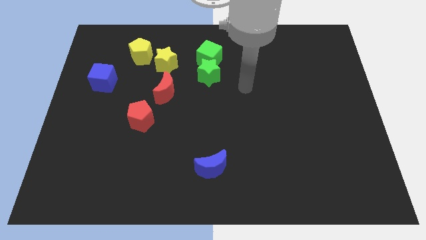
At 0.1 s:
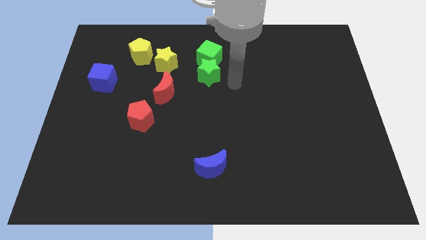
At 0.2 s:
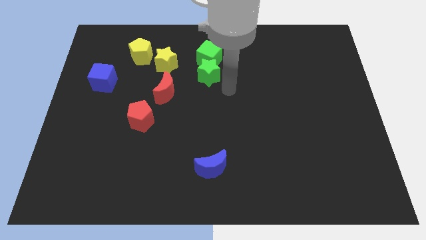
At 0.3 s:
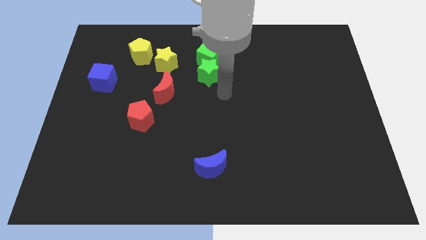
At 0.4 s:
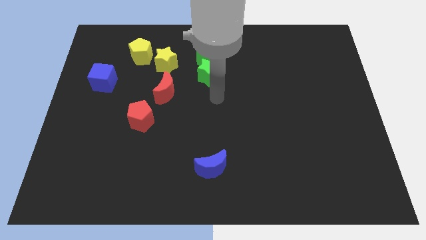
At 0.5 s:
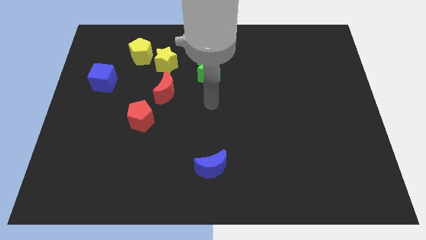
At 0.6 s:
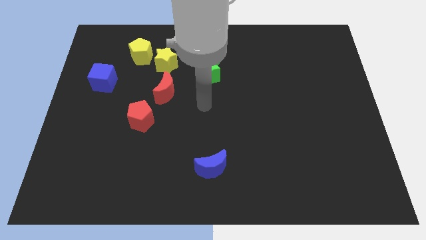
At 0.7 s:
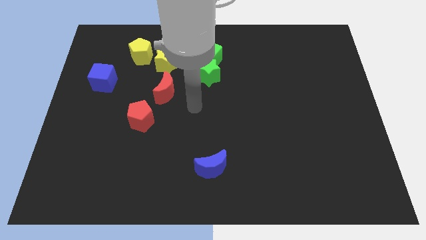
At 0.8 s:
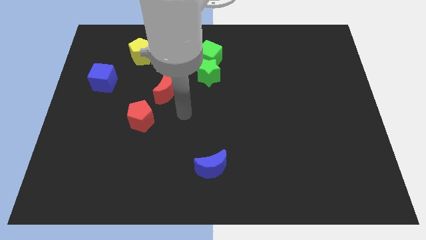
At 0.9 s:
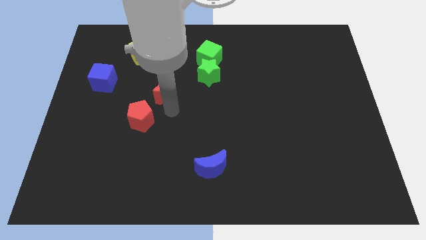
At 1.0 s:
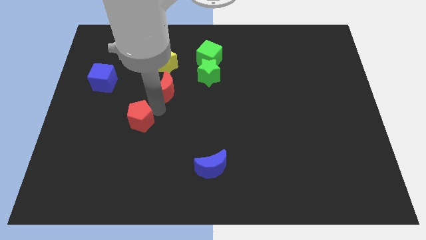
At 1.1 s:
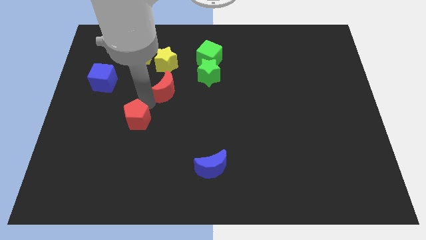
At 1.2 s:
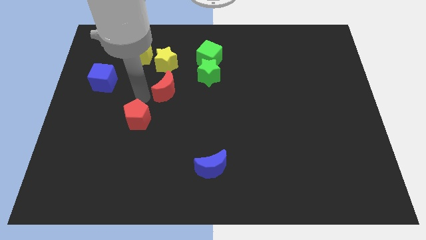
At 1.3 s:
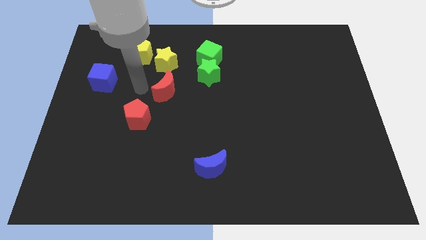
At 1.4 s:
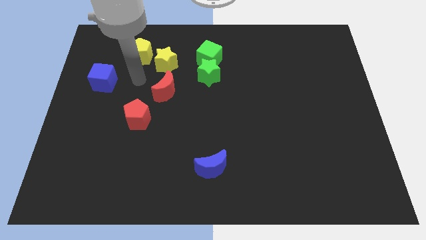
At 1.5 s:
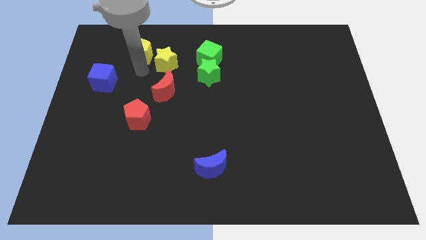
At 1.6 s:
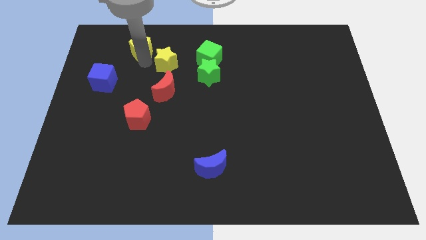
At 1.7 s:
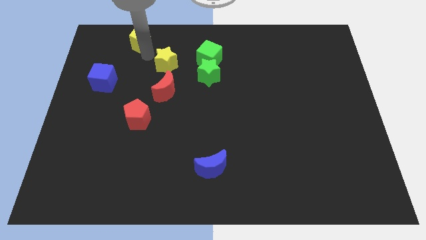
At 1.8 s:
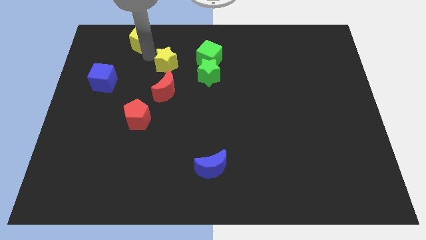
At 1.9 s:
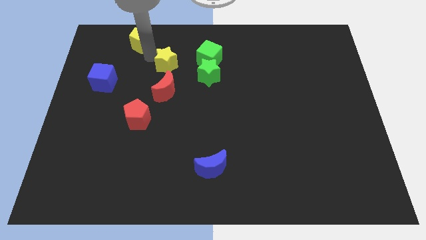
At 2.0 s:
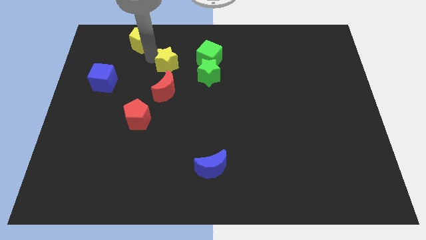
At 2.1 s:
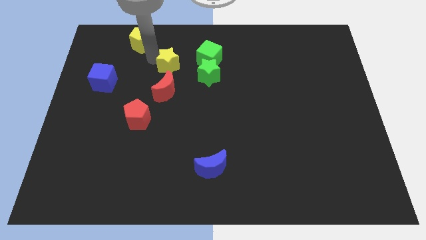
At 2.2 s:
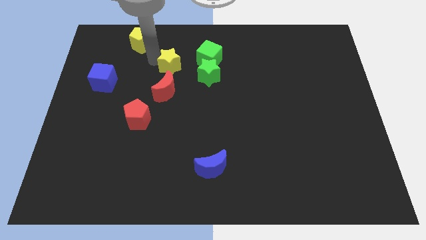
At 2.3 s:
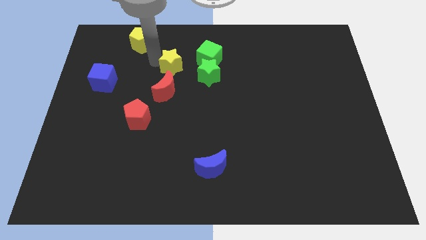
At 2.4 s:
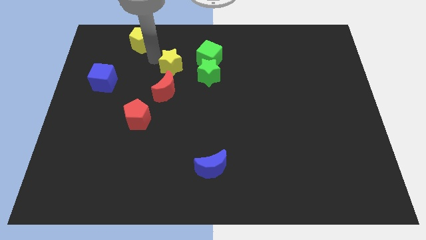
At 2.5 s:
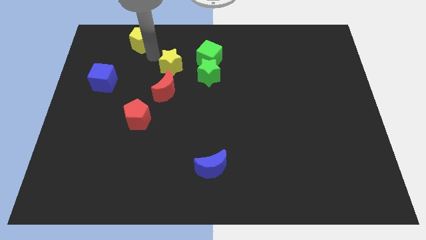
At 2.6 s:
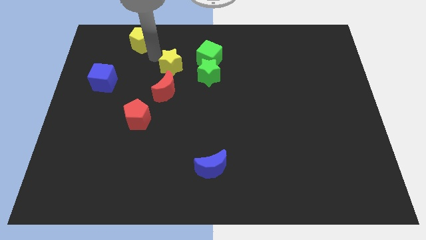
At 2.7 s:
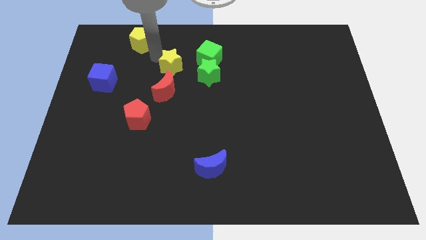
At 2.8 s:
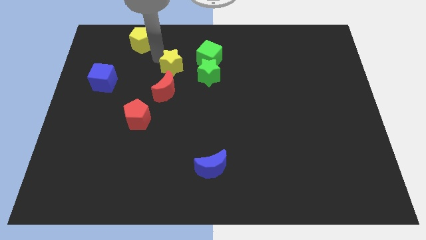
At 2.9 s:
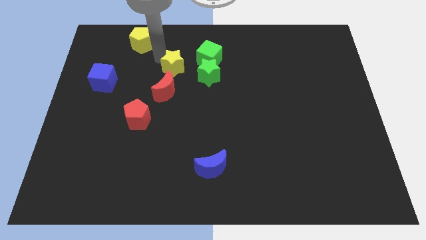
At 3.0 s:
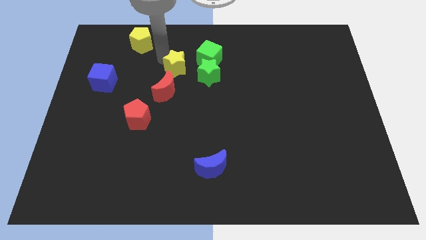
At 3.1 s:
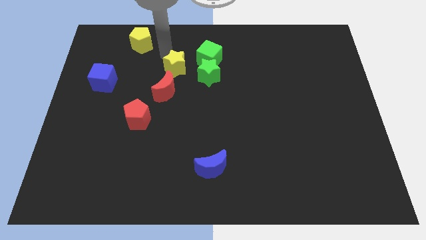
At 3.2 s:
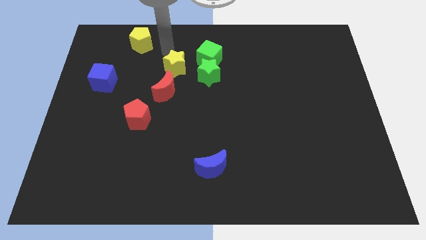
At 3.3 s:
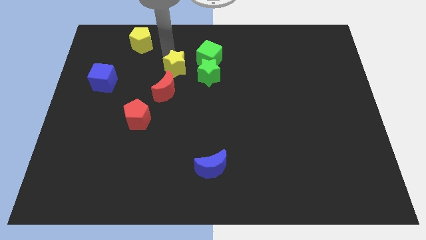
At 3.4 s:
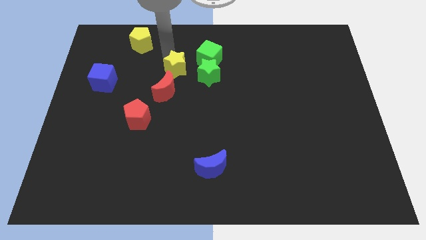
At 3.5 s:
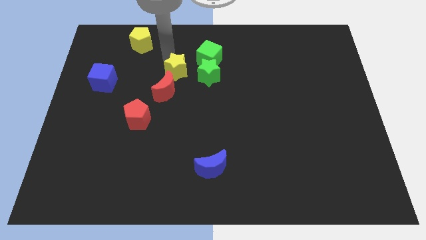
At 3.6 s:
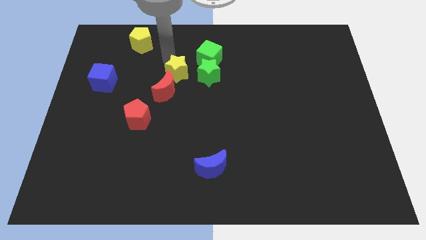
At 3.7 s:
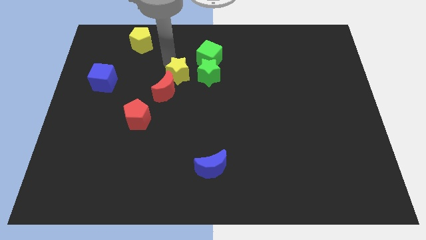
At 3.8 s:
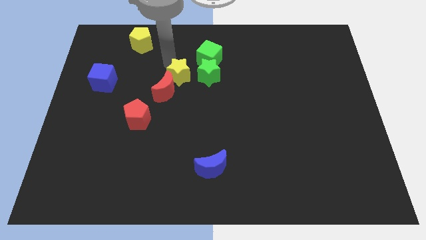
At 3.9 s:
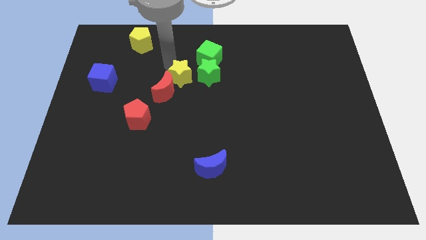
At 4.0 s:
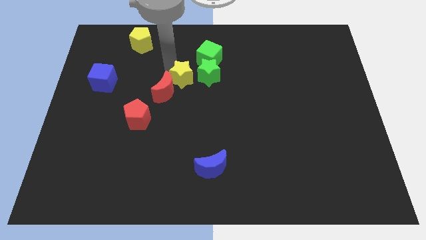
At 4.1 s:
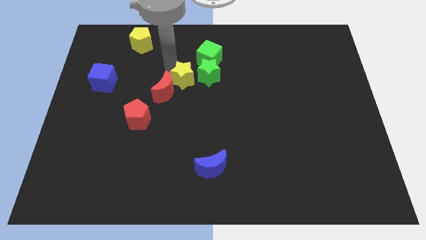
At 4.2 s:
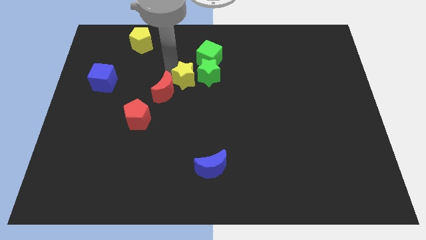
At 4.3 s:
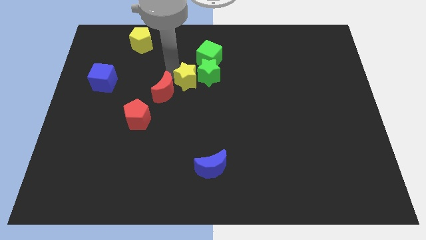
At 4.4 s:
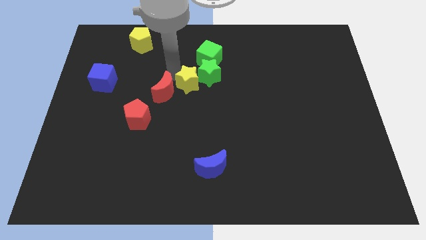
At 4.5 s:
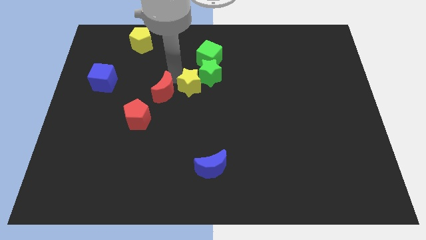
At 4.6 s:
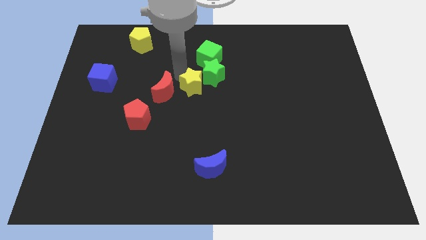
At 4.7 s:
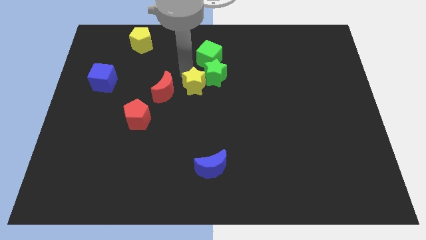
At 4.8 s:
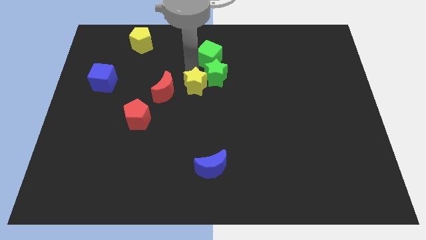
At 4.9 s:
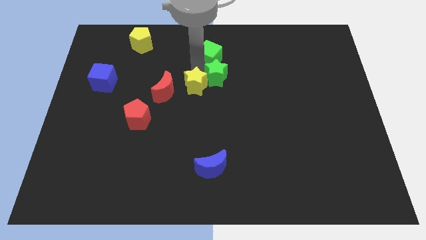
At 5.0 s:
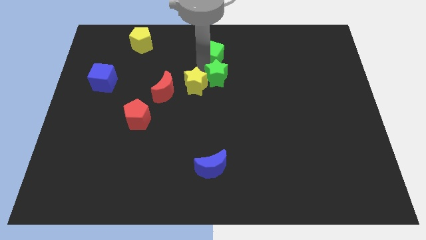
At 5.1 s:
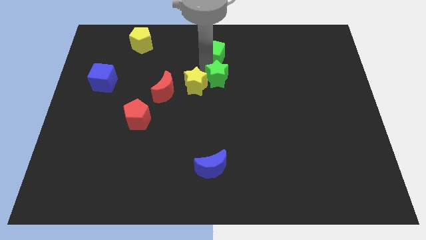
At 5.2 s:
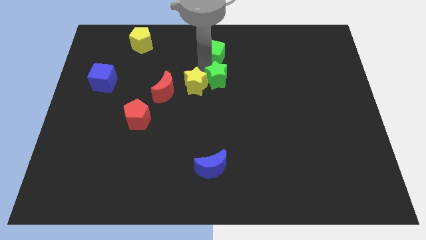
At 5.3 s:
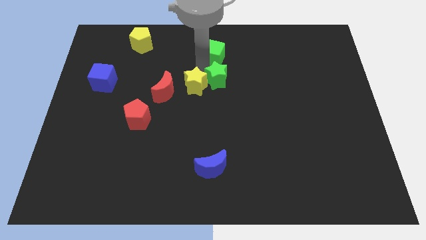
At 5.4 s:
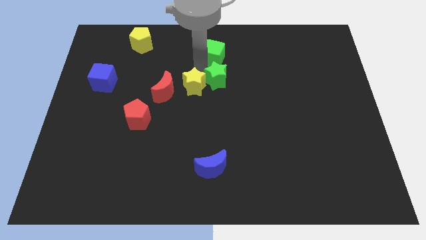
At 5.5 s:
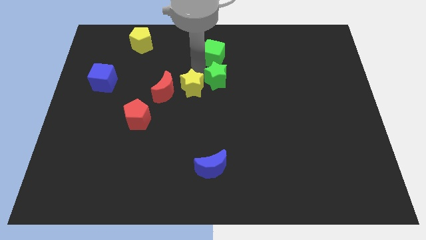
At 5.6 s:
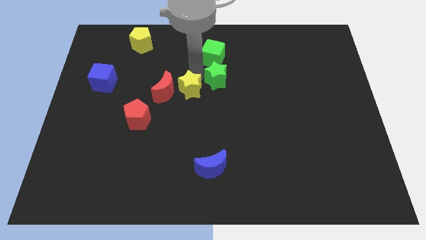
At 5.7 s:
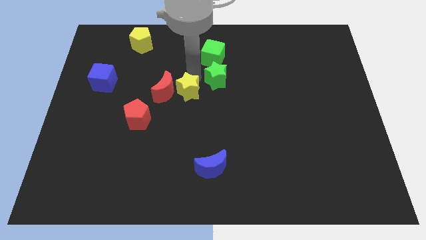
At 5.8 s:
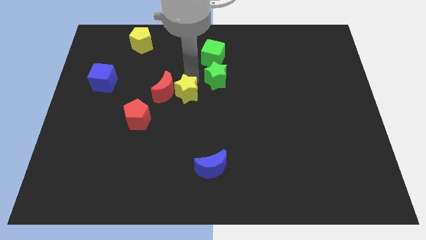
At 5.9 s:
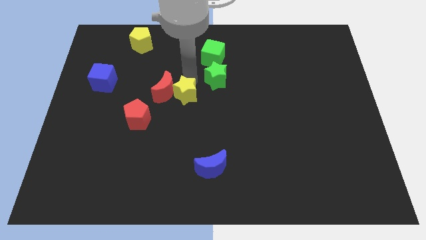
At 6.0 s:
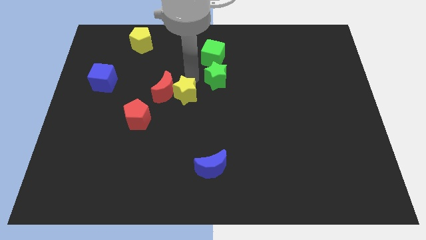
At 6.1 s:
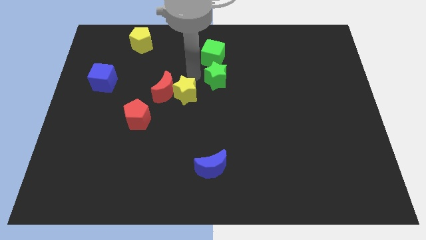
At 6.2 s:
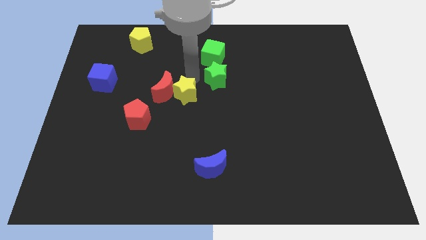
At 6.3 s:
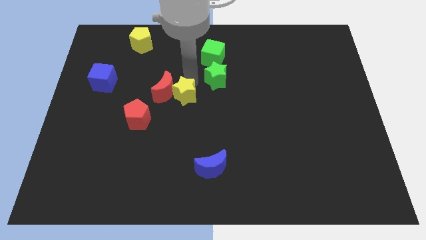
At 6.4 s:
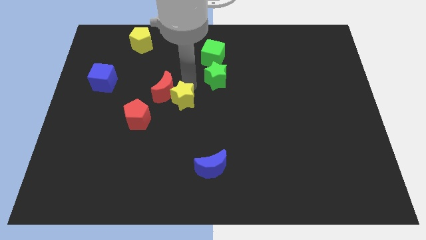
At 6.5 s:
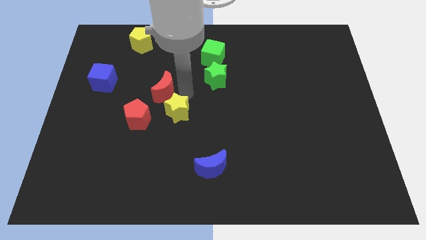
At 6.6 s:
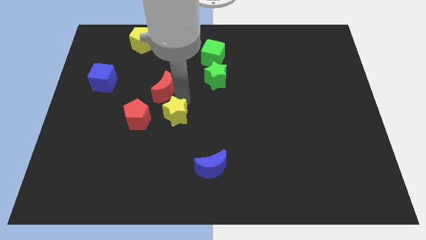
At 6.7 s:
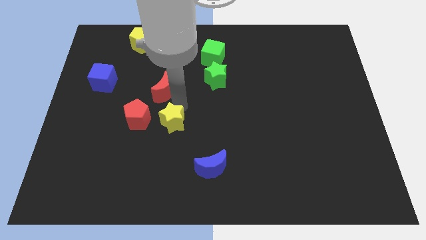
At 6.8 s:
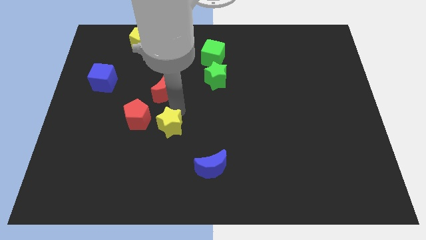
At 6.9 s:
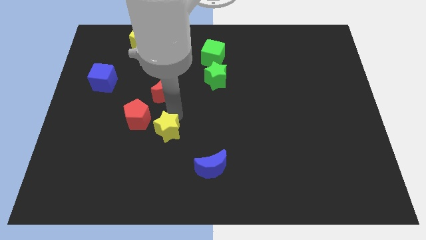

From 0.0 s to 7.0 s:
move the yellow star down

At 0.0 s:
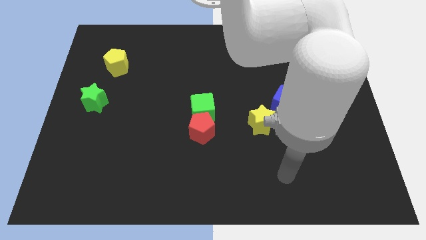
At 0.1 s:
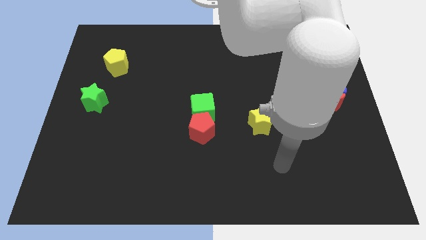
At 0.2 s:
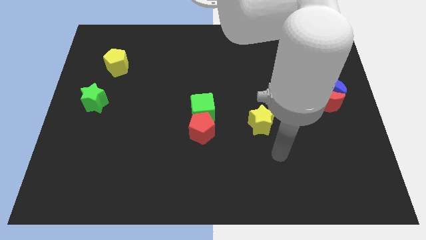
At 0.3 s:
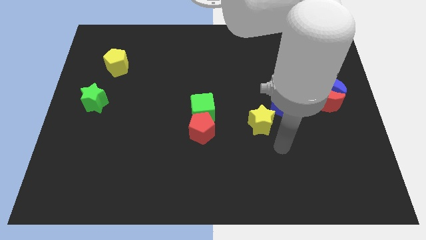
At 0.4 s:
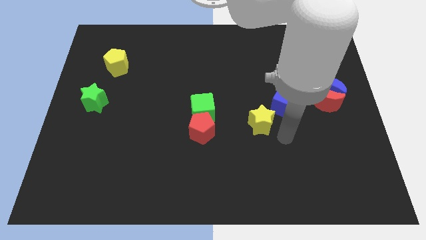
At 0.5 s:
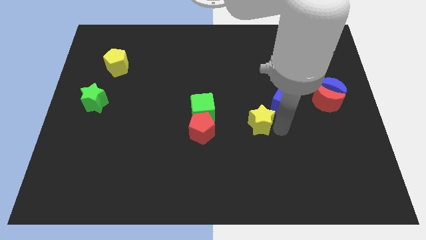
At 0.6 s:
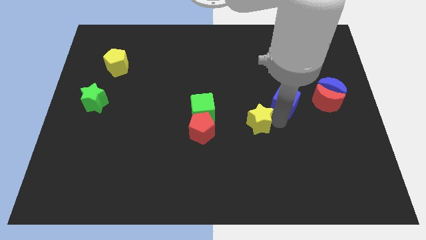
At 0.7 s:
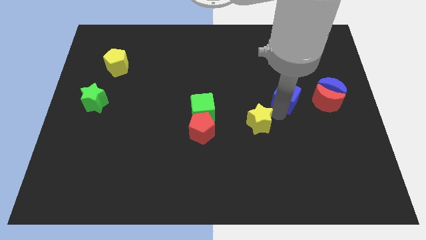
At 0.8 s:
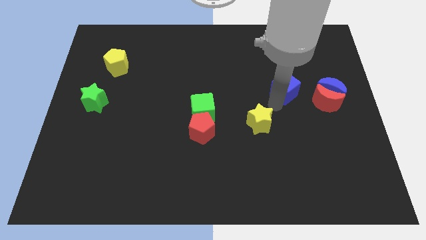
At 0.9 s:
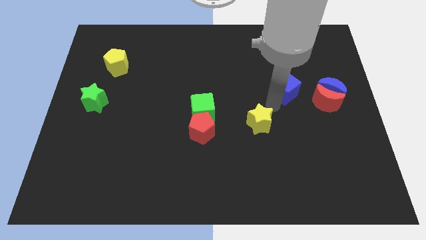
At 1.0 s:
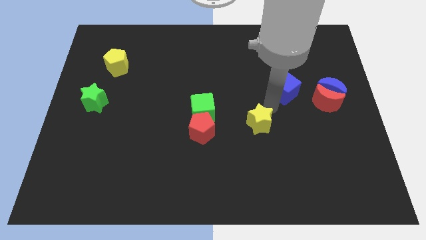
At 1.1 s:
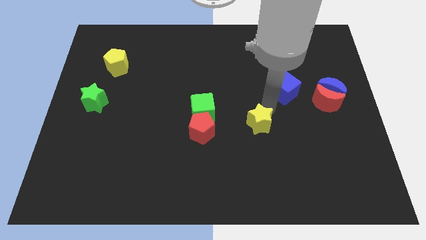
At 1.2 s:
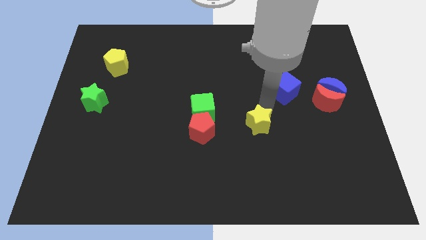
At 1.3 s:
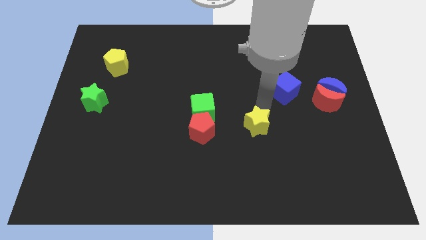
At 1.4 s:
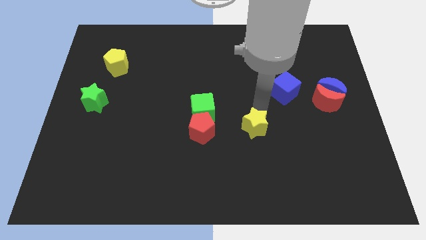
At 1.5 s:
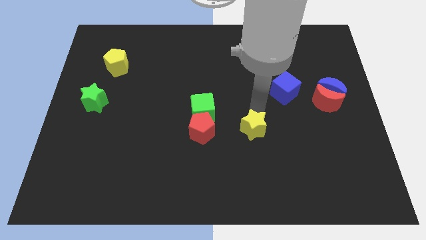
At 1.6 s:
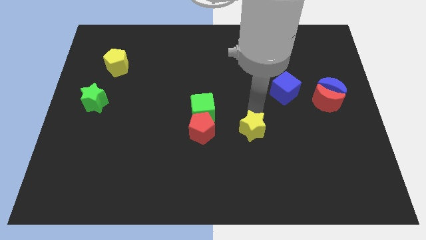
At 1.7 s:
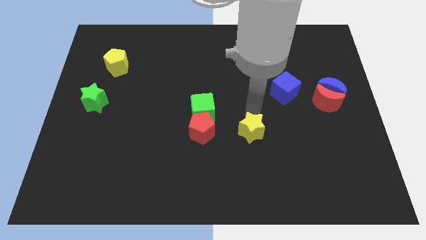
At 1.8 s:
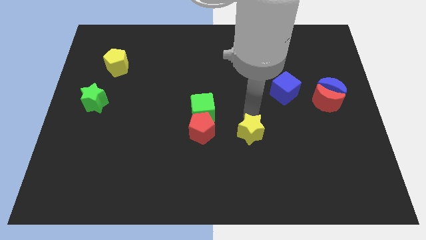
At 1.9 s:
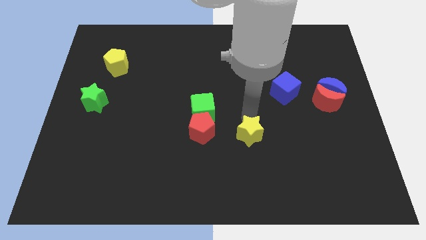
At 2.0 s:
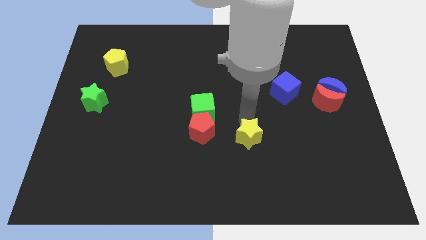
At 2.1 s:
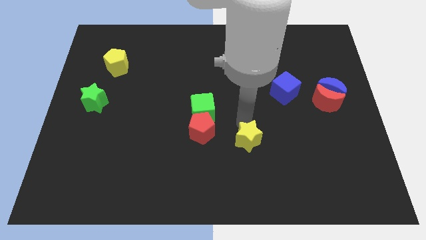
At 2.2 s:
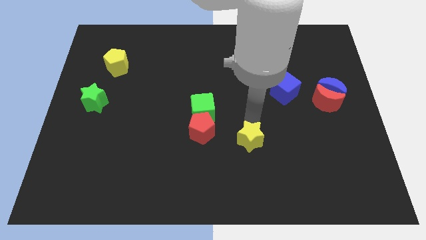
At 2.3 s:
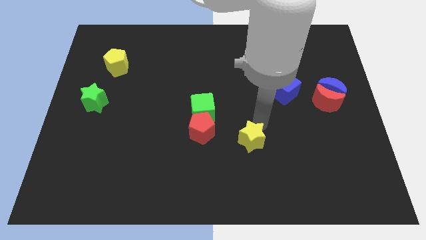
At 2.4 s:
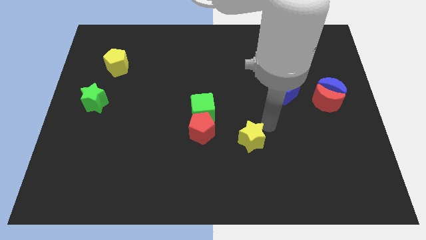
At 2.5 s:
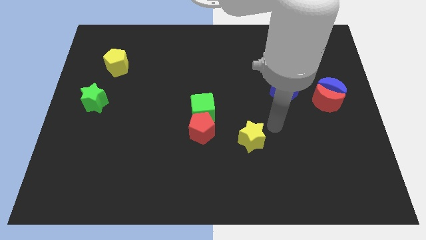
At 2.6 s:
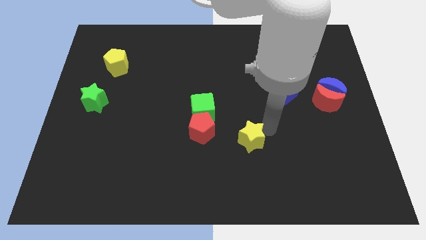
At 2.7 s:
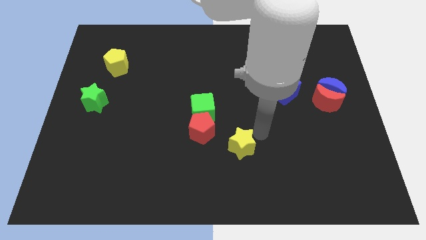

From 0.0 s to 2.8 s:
move the yellow star a bit down and then left
